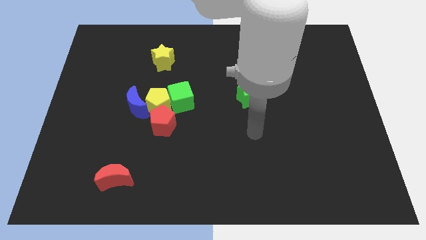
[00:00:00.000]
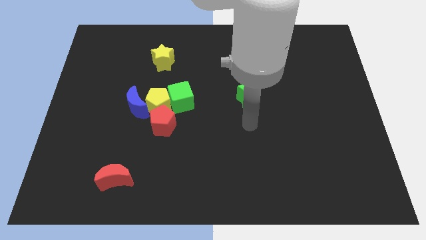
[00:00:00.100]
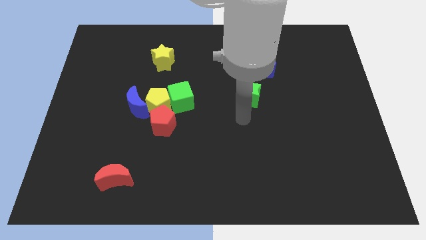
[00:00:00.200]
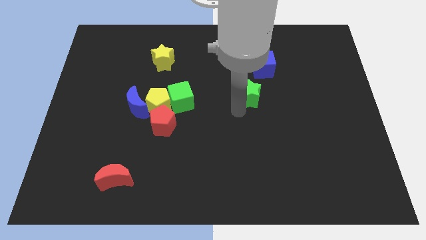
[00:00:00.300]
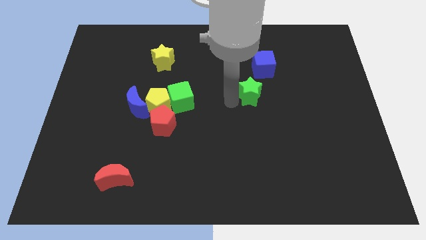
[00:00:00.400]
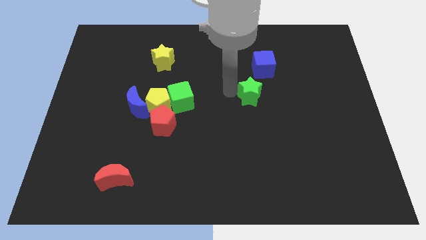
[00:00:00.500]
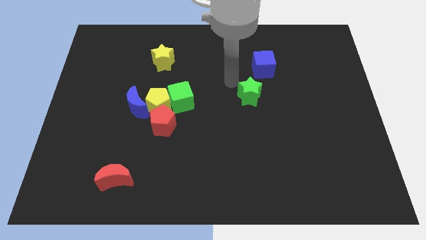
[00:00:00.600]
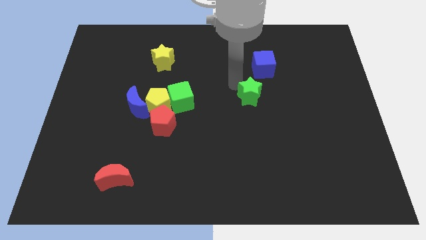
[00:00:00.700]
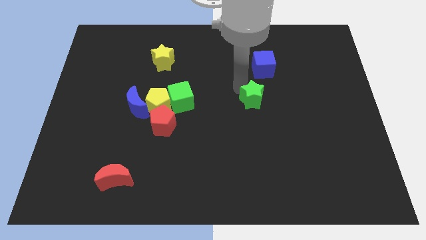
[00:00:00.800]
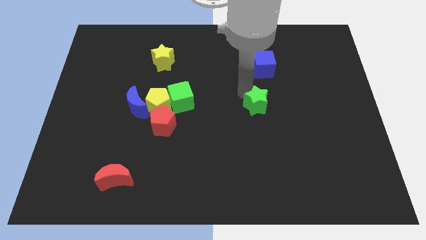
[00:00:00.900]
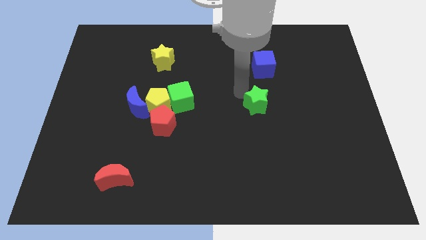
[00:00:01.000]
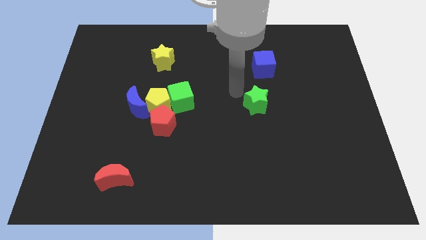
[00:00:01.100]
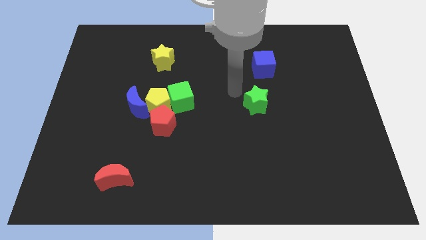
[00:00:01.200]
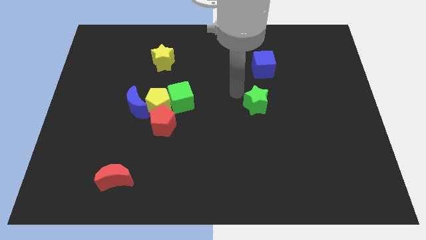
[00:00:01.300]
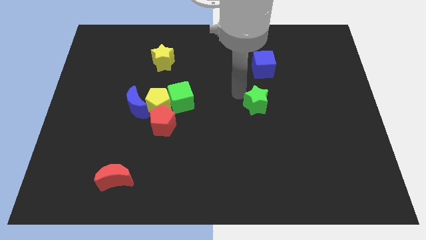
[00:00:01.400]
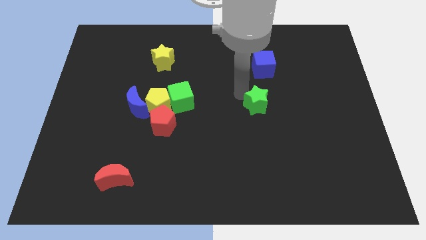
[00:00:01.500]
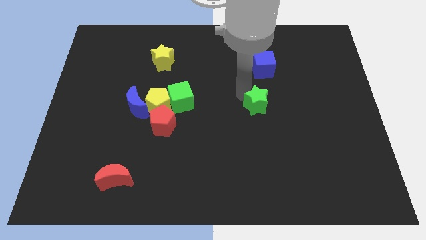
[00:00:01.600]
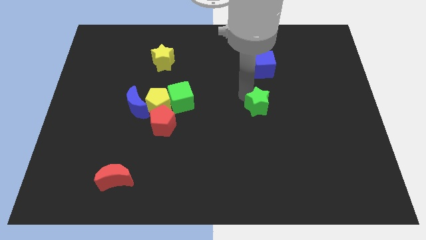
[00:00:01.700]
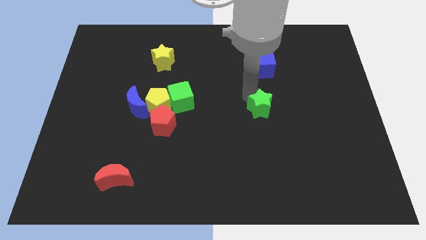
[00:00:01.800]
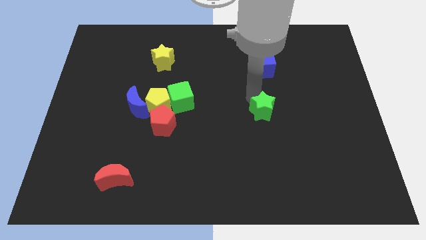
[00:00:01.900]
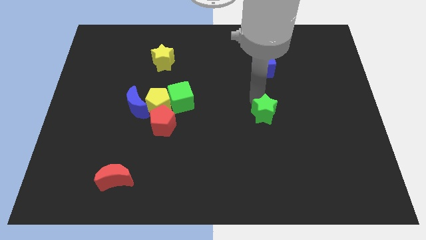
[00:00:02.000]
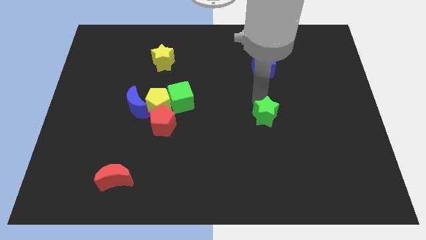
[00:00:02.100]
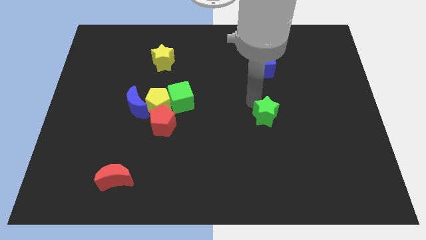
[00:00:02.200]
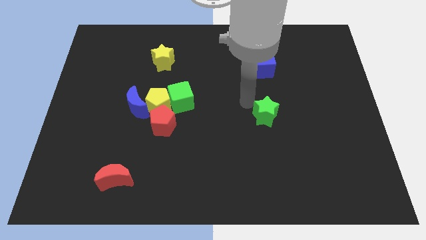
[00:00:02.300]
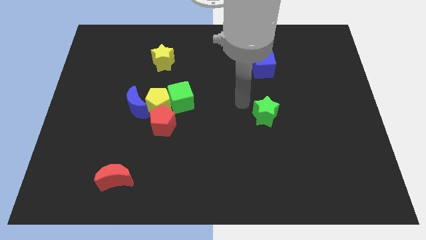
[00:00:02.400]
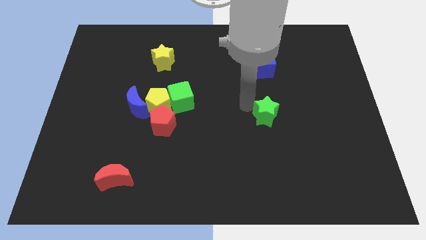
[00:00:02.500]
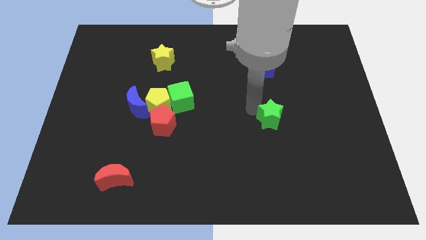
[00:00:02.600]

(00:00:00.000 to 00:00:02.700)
push the green star slightly down and right diagonally

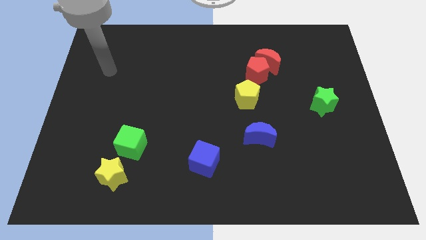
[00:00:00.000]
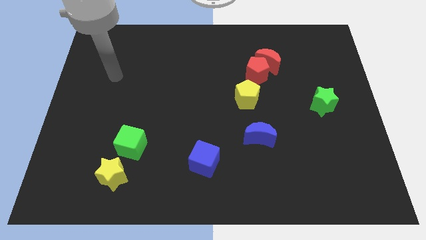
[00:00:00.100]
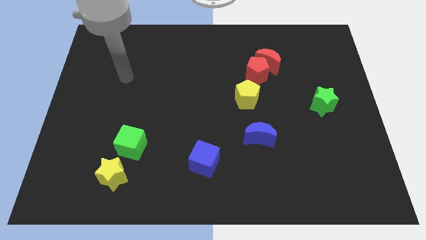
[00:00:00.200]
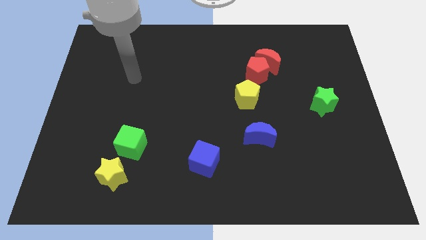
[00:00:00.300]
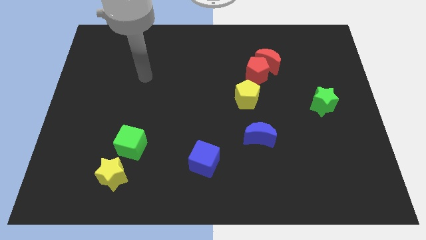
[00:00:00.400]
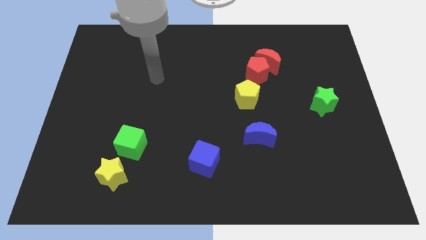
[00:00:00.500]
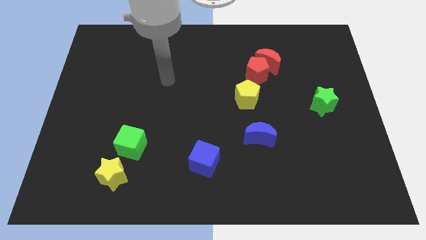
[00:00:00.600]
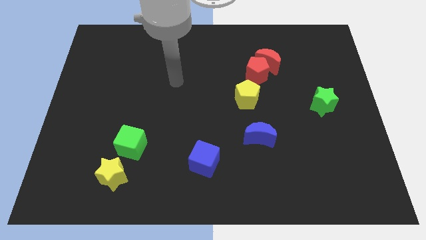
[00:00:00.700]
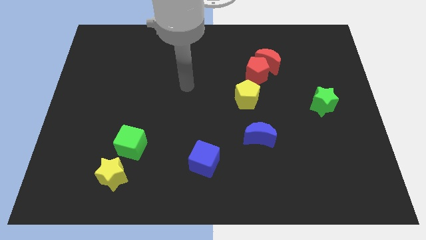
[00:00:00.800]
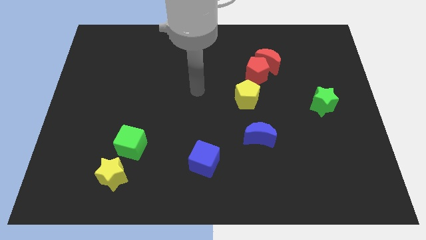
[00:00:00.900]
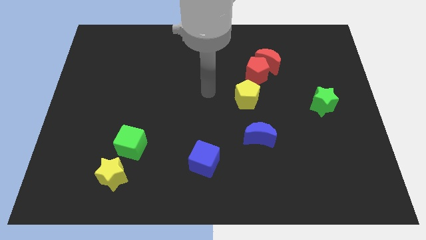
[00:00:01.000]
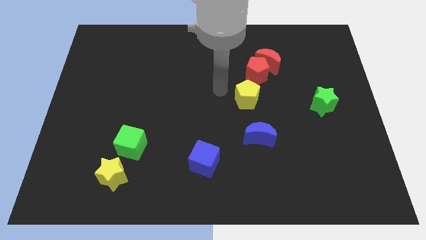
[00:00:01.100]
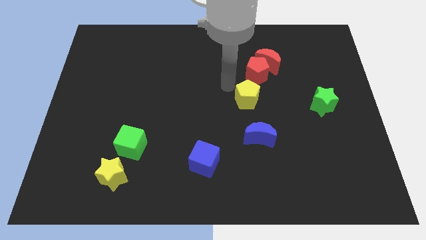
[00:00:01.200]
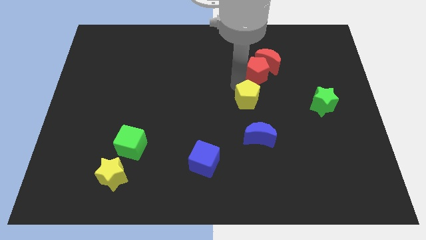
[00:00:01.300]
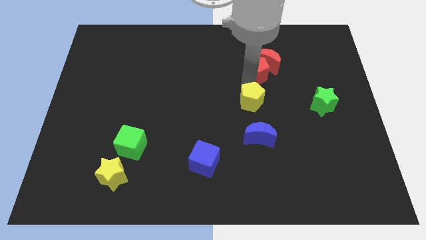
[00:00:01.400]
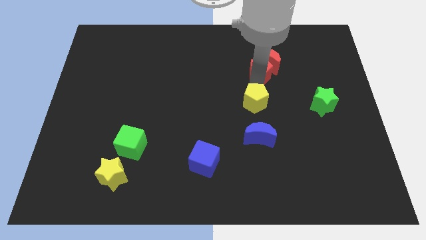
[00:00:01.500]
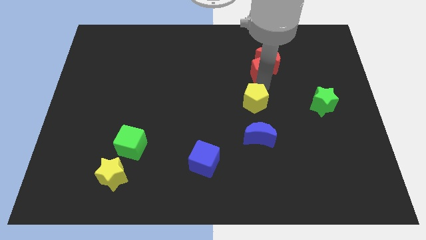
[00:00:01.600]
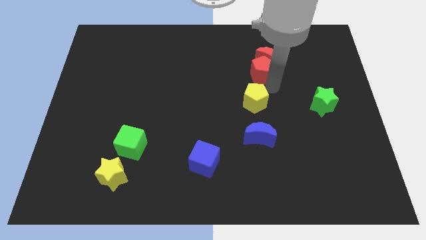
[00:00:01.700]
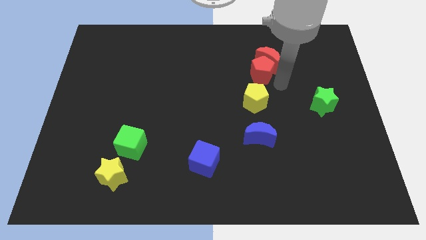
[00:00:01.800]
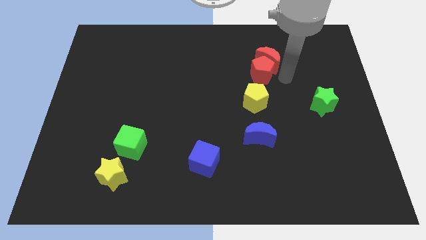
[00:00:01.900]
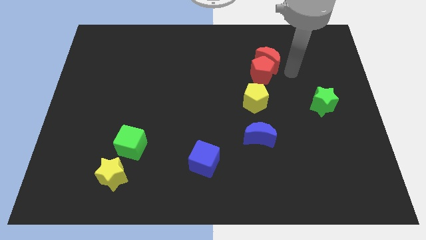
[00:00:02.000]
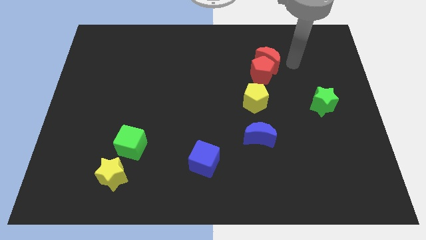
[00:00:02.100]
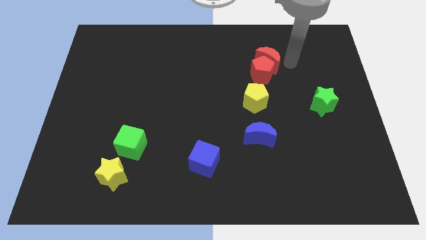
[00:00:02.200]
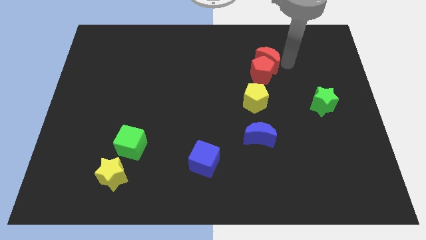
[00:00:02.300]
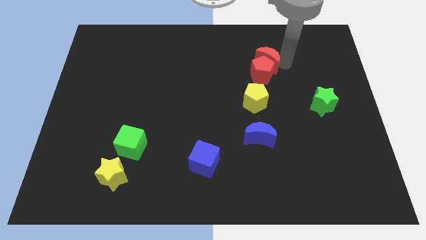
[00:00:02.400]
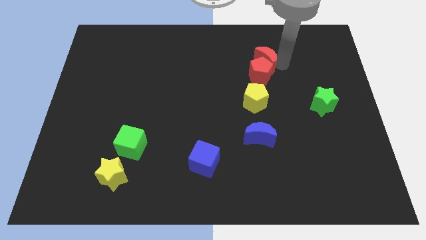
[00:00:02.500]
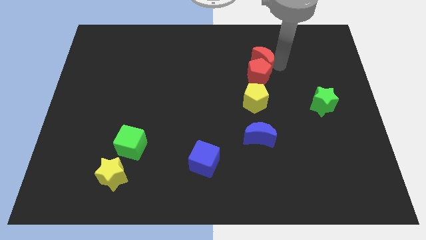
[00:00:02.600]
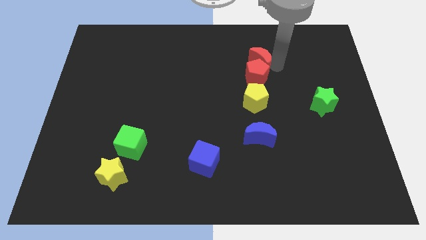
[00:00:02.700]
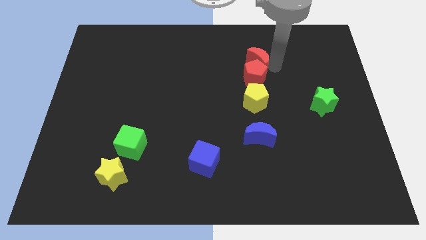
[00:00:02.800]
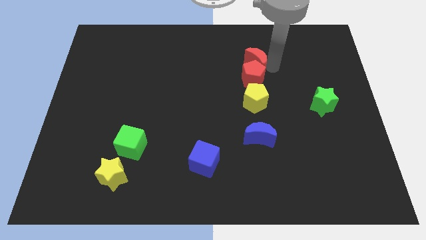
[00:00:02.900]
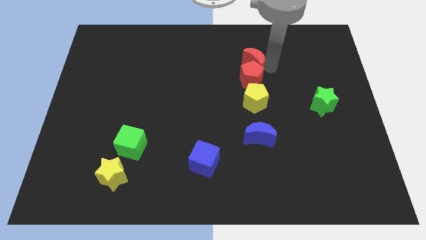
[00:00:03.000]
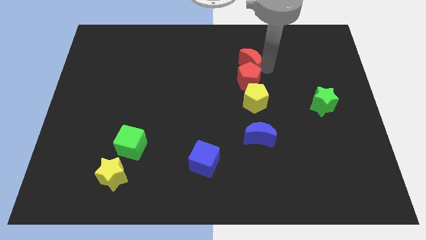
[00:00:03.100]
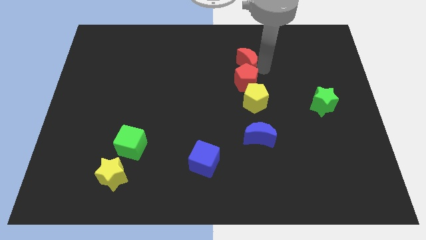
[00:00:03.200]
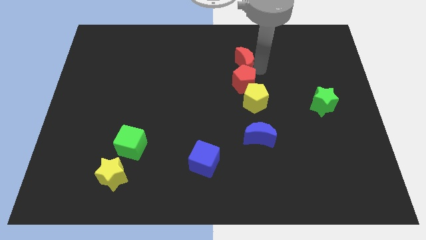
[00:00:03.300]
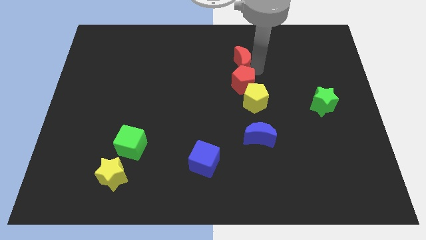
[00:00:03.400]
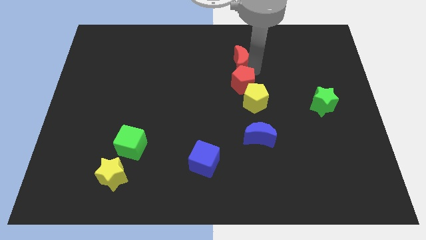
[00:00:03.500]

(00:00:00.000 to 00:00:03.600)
move the red moon left somewhat

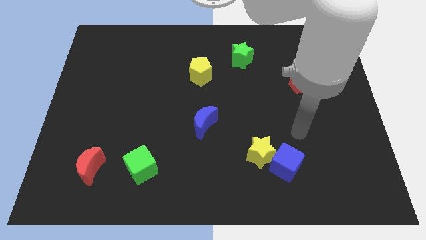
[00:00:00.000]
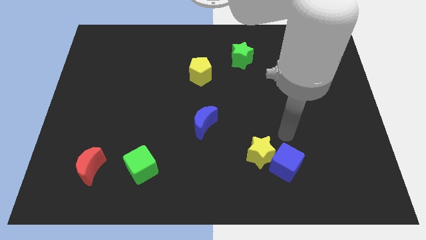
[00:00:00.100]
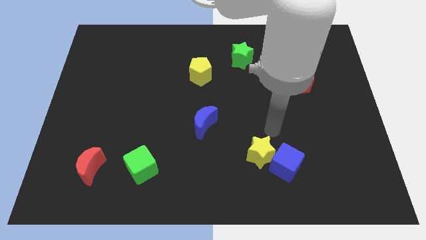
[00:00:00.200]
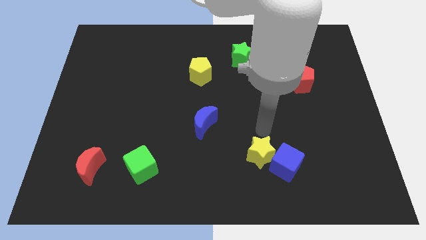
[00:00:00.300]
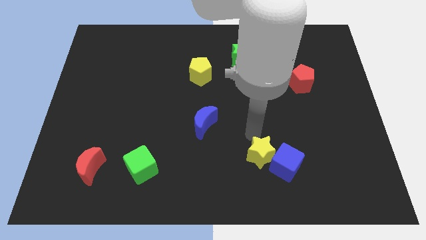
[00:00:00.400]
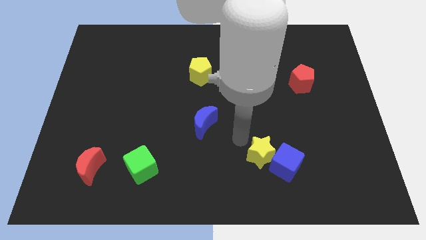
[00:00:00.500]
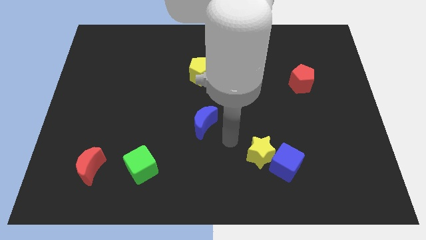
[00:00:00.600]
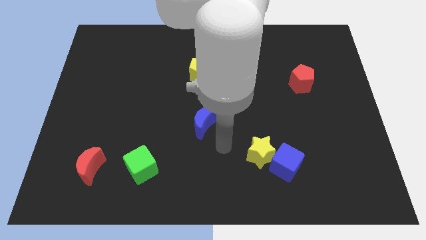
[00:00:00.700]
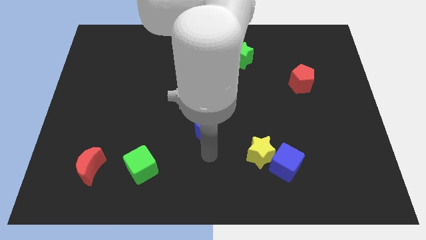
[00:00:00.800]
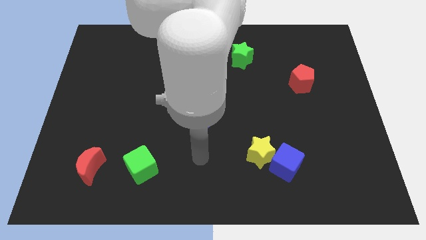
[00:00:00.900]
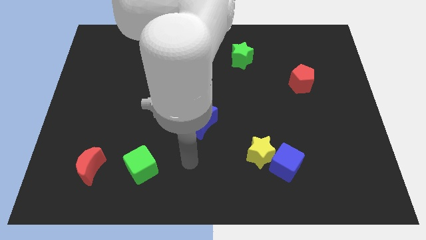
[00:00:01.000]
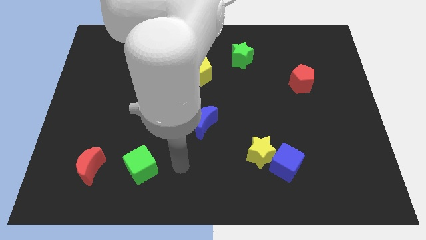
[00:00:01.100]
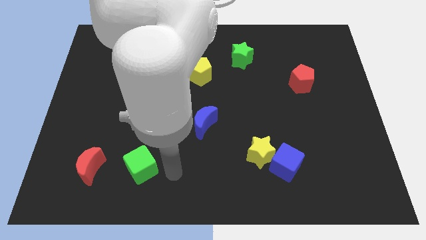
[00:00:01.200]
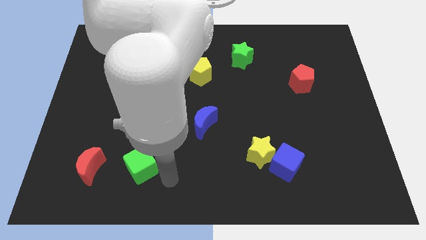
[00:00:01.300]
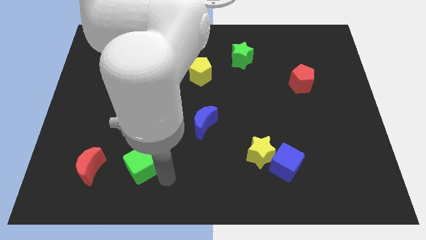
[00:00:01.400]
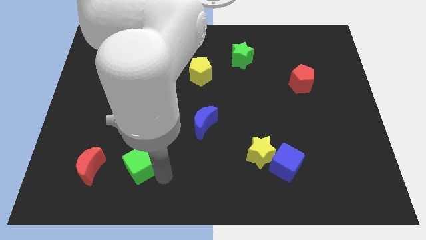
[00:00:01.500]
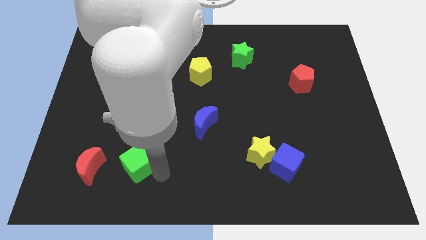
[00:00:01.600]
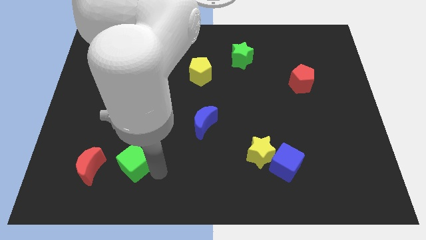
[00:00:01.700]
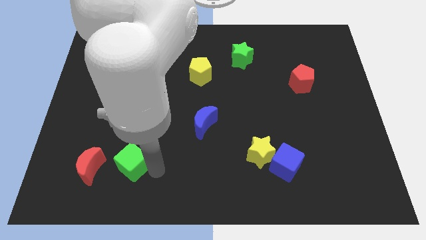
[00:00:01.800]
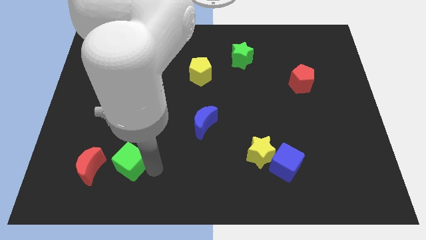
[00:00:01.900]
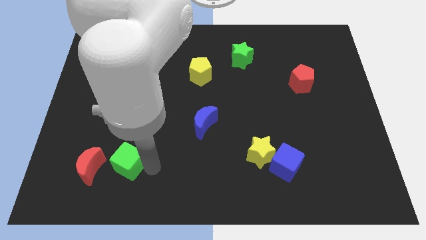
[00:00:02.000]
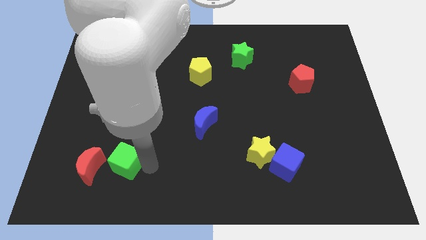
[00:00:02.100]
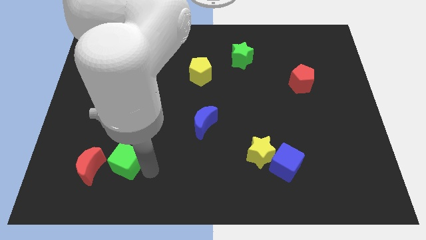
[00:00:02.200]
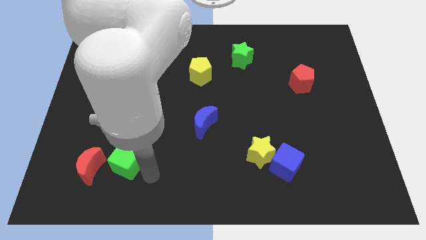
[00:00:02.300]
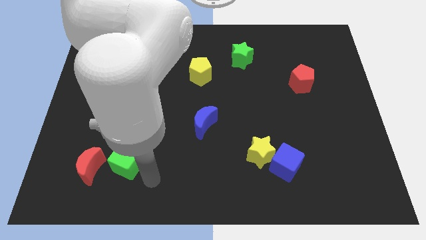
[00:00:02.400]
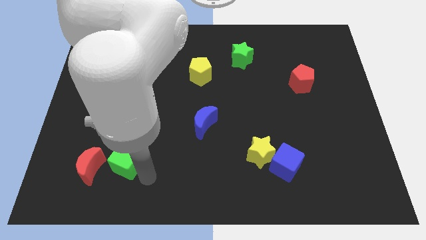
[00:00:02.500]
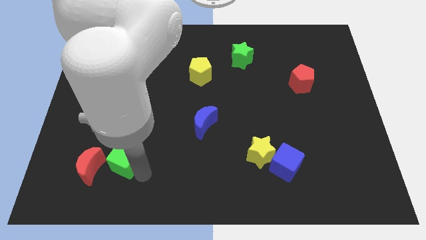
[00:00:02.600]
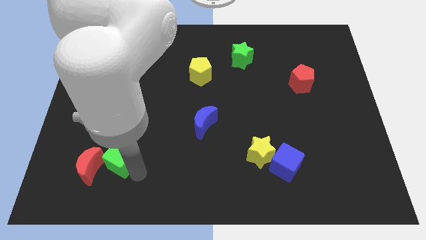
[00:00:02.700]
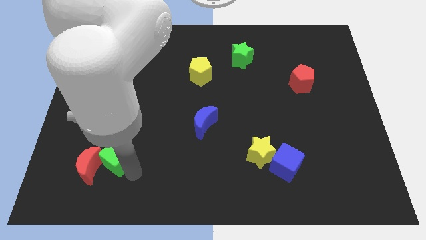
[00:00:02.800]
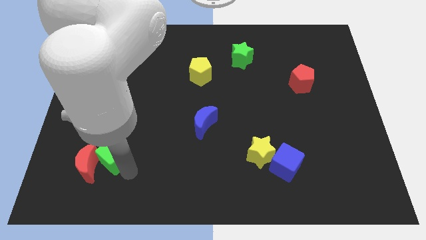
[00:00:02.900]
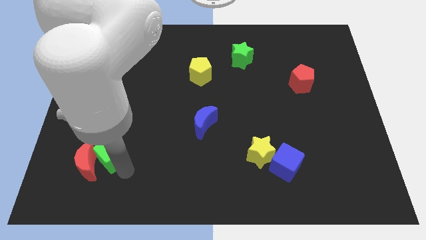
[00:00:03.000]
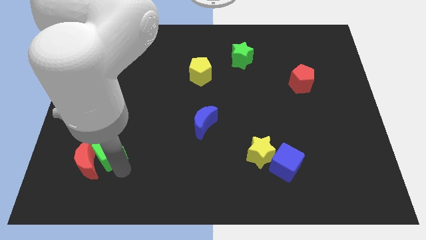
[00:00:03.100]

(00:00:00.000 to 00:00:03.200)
push the green cube diagonally upwards and left a bit
